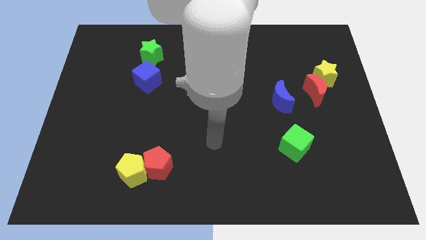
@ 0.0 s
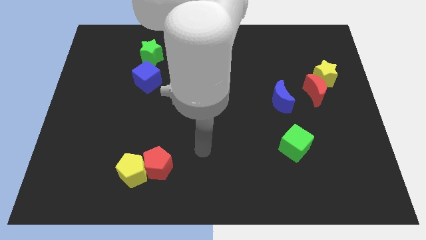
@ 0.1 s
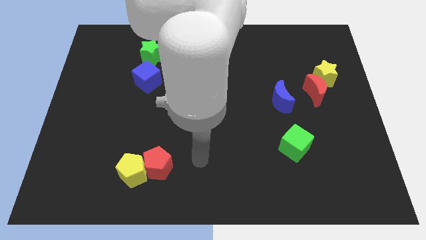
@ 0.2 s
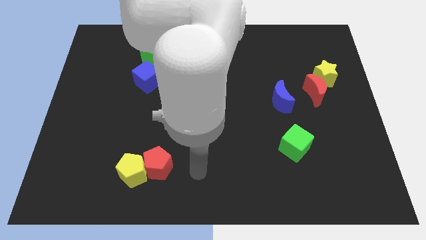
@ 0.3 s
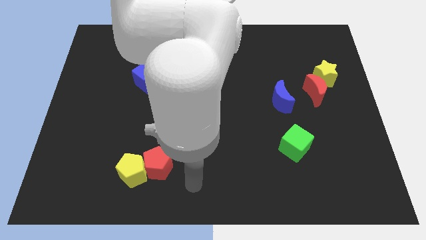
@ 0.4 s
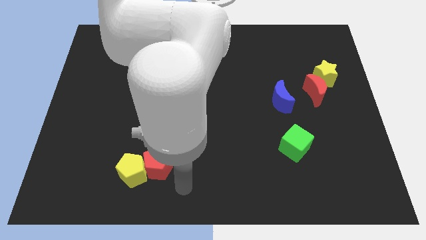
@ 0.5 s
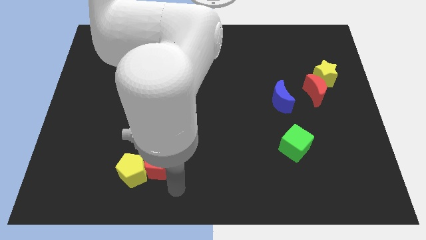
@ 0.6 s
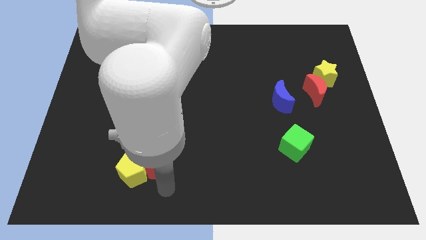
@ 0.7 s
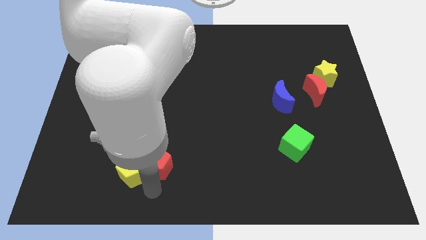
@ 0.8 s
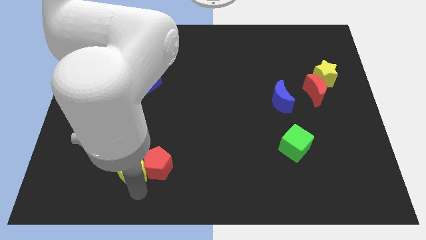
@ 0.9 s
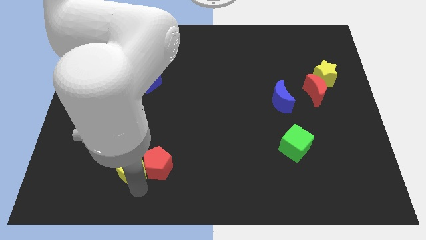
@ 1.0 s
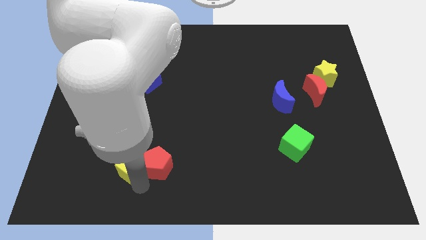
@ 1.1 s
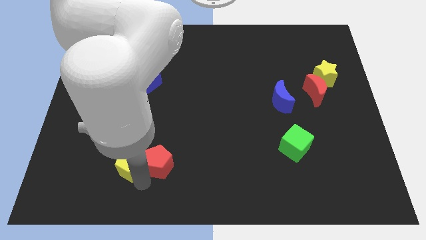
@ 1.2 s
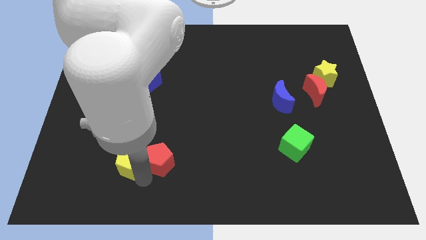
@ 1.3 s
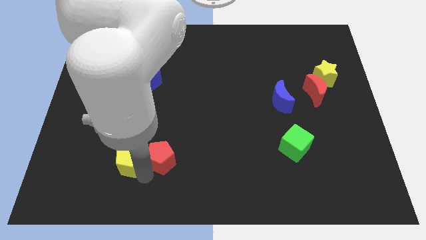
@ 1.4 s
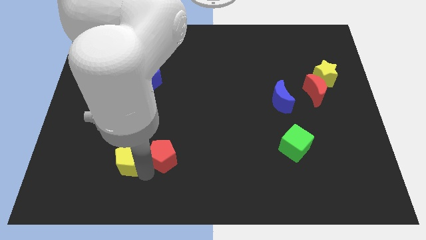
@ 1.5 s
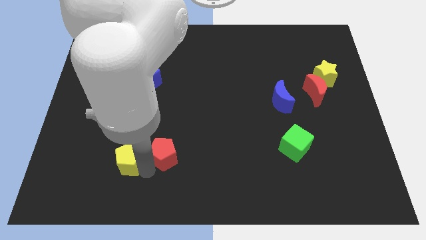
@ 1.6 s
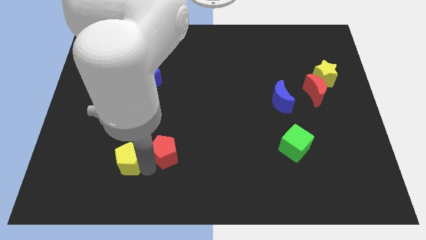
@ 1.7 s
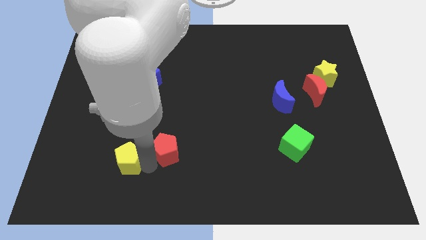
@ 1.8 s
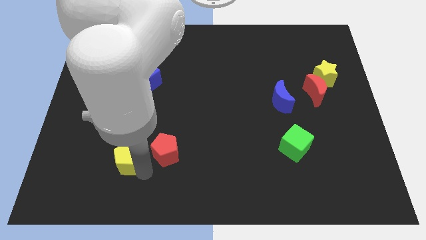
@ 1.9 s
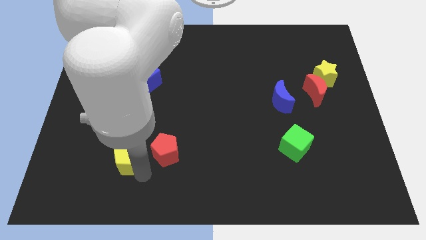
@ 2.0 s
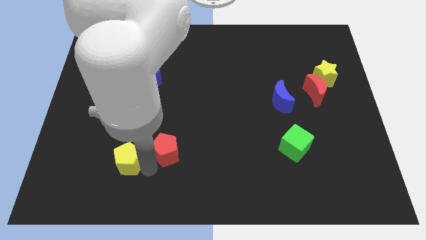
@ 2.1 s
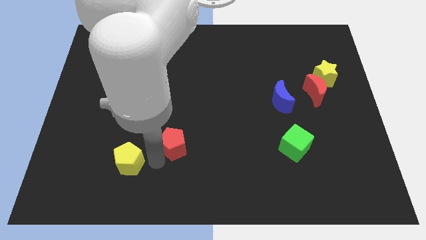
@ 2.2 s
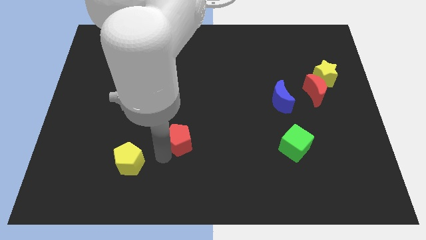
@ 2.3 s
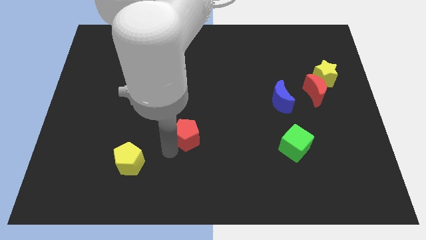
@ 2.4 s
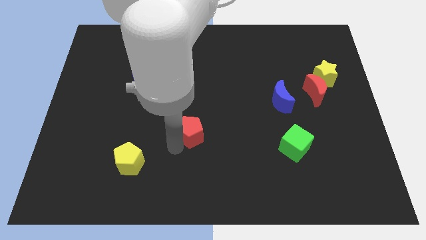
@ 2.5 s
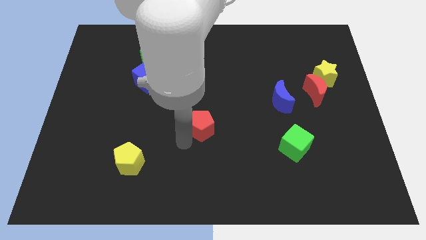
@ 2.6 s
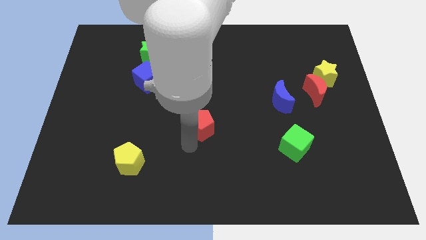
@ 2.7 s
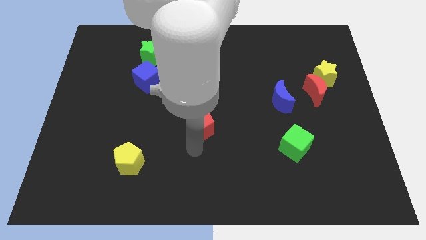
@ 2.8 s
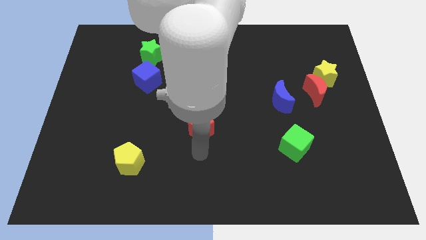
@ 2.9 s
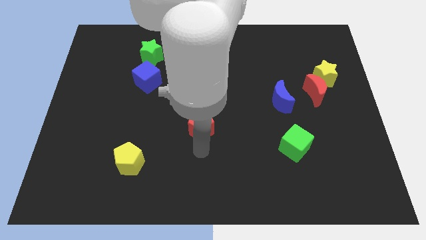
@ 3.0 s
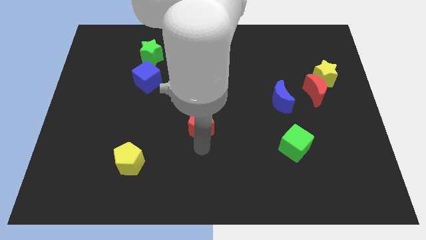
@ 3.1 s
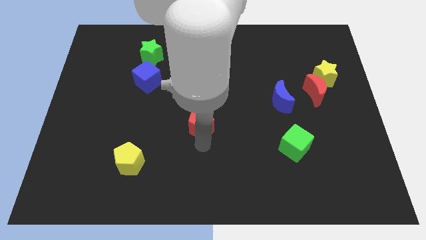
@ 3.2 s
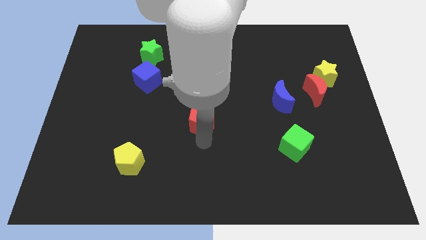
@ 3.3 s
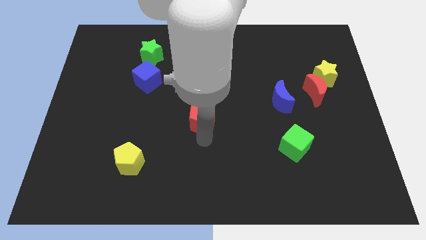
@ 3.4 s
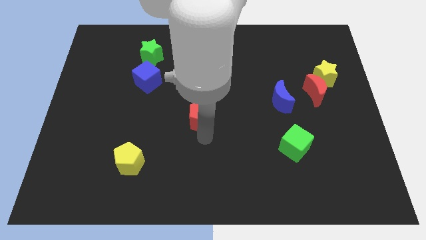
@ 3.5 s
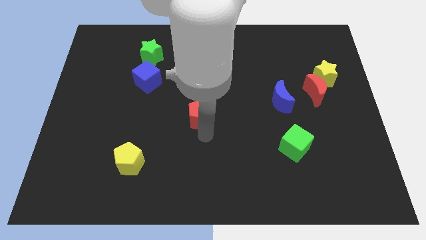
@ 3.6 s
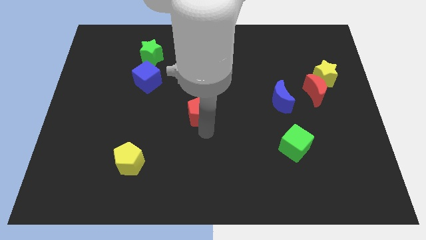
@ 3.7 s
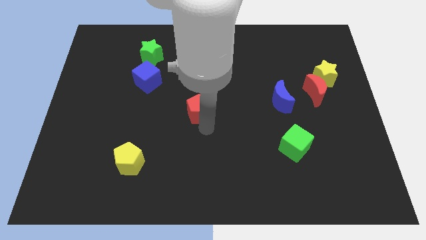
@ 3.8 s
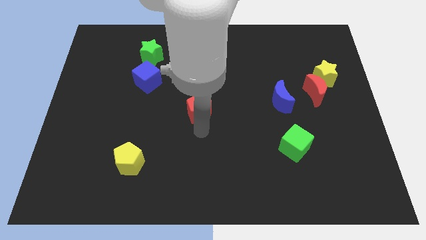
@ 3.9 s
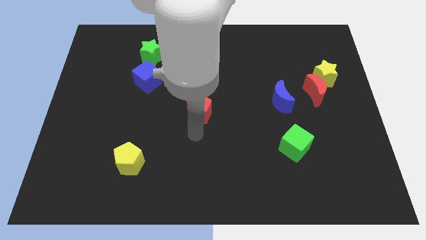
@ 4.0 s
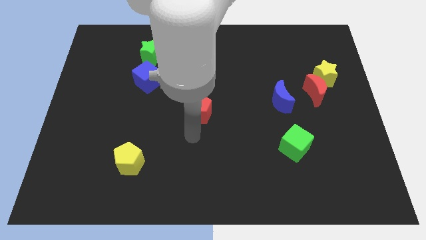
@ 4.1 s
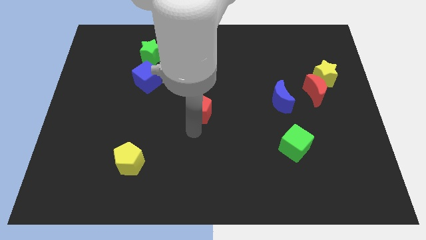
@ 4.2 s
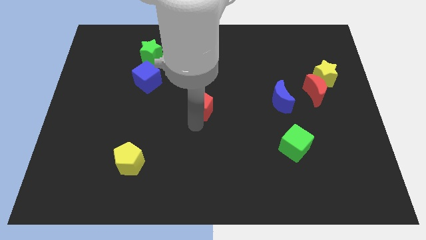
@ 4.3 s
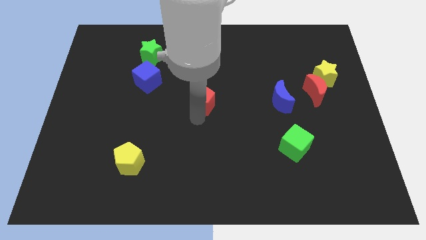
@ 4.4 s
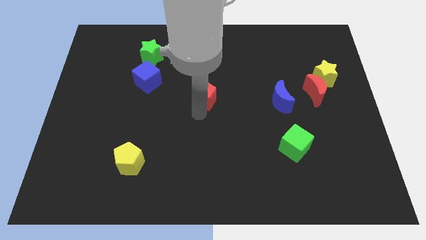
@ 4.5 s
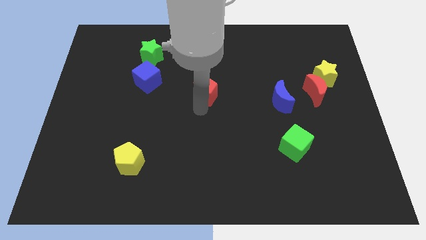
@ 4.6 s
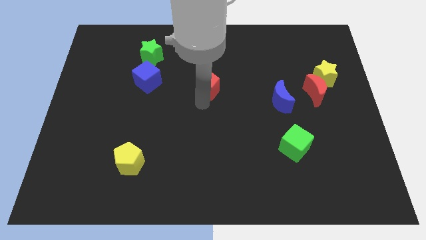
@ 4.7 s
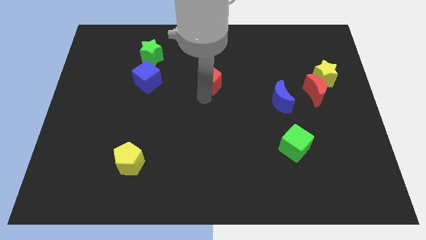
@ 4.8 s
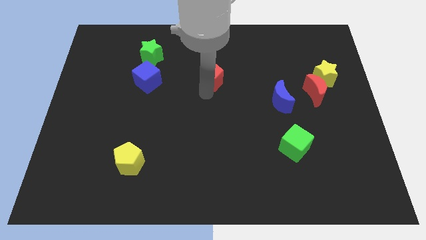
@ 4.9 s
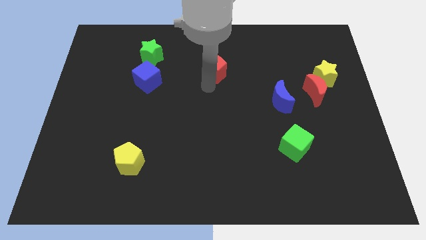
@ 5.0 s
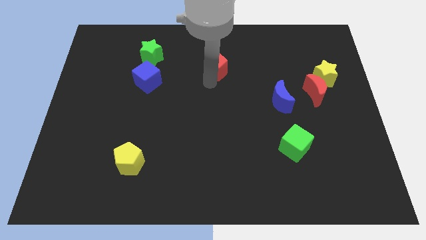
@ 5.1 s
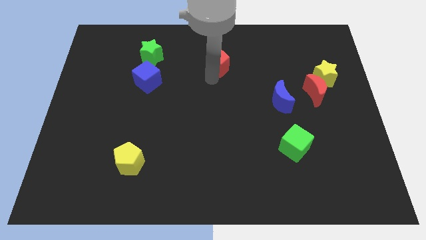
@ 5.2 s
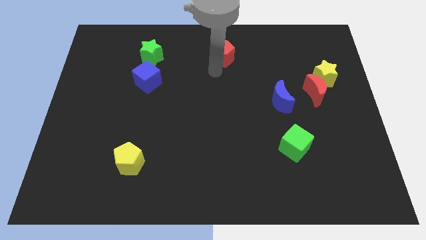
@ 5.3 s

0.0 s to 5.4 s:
put the red pentagon to the top side
